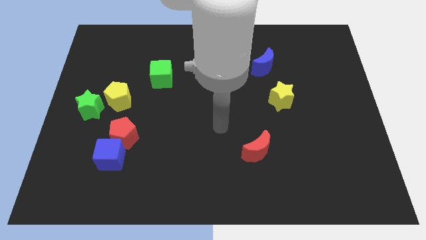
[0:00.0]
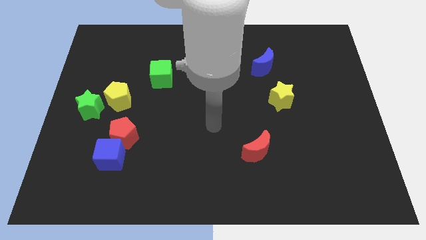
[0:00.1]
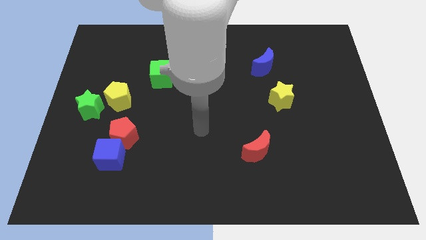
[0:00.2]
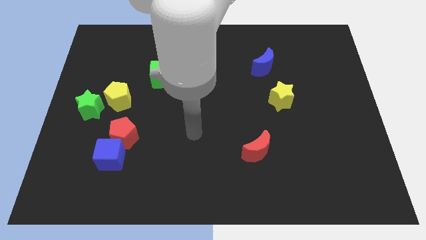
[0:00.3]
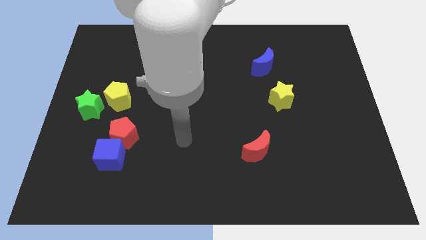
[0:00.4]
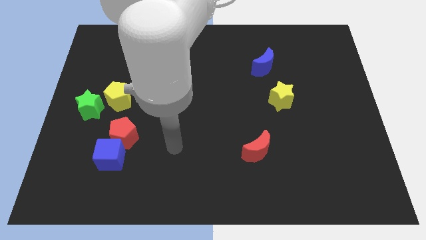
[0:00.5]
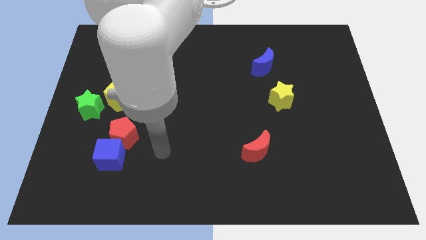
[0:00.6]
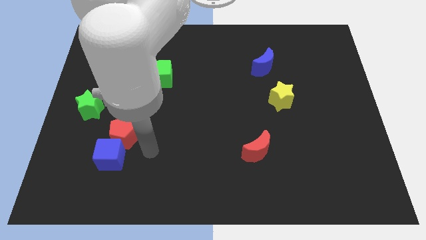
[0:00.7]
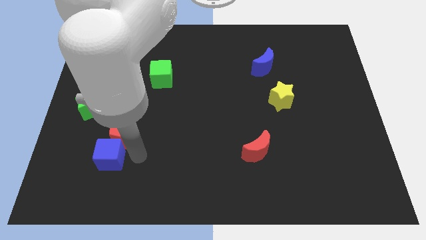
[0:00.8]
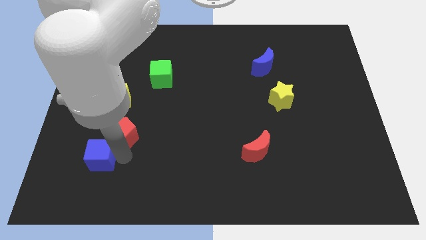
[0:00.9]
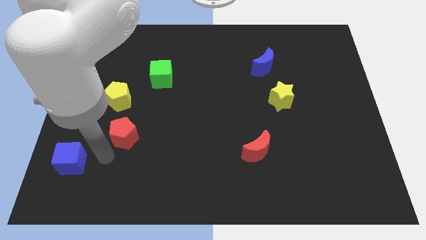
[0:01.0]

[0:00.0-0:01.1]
move the red pentagon away from the blue cube

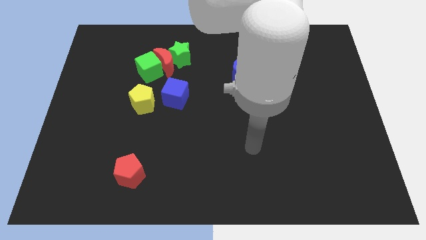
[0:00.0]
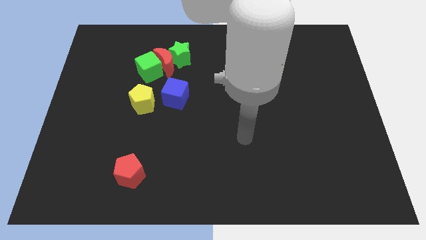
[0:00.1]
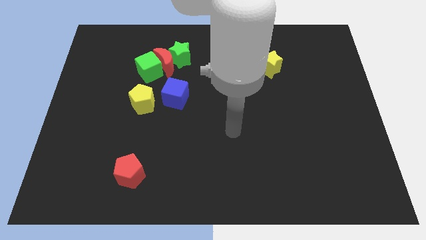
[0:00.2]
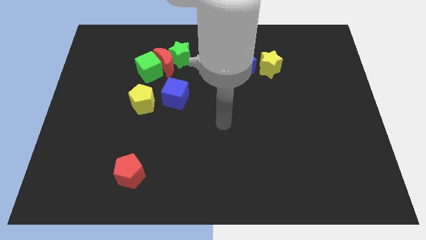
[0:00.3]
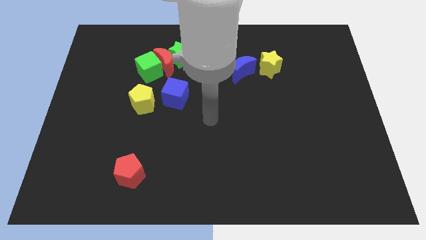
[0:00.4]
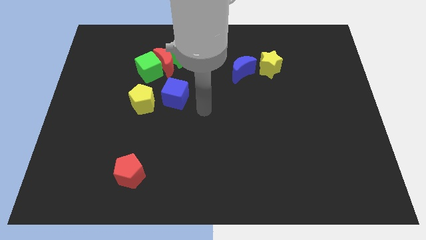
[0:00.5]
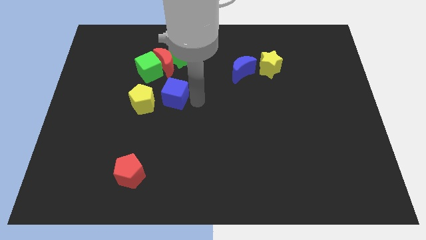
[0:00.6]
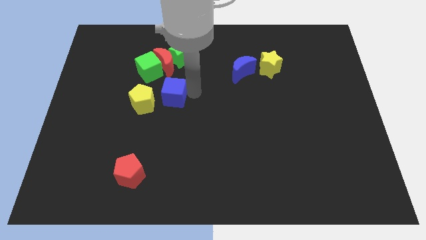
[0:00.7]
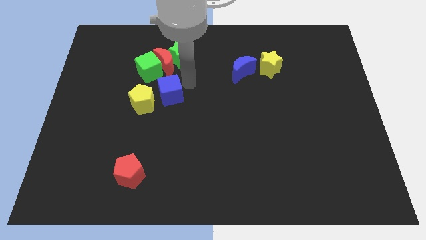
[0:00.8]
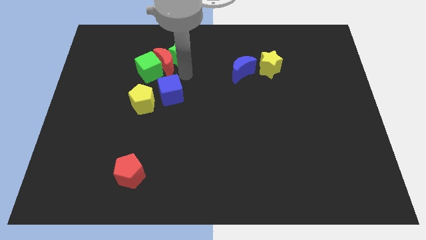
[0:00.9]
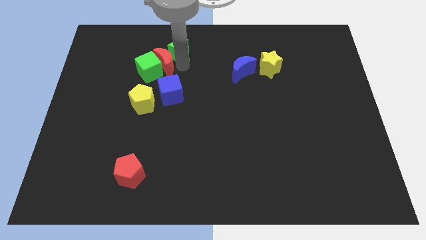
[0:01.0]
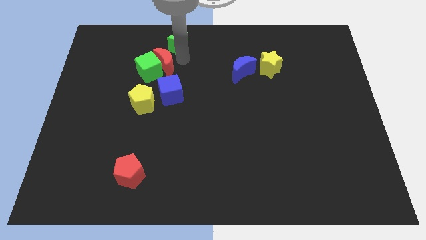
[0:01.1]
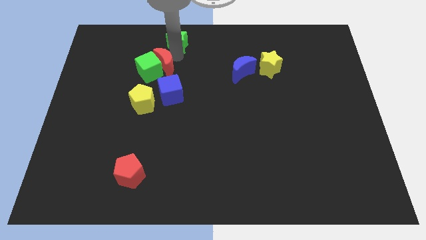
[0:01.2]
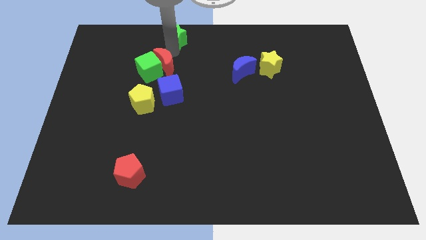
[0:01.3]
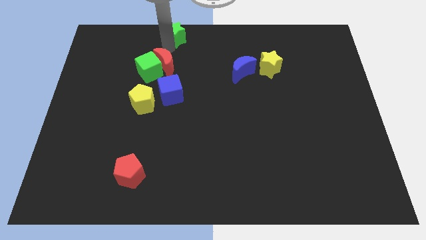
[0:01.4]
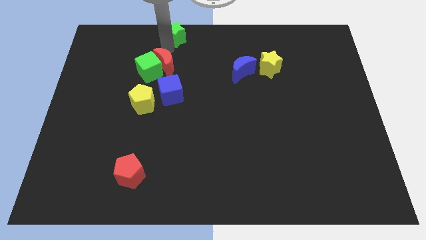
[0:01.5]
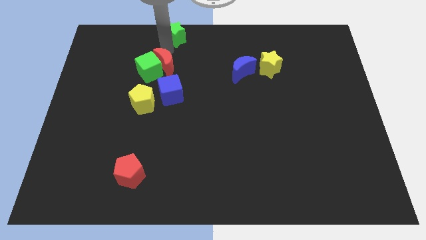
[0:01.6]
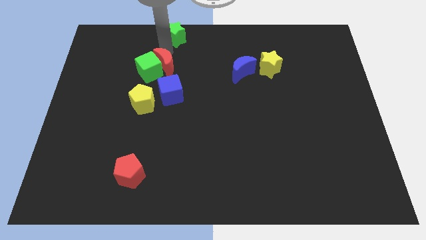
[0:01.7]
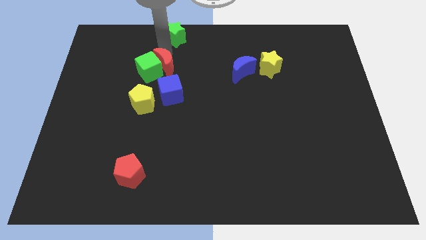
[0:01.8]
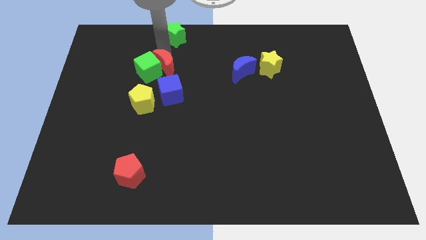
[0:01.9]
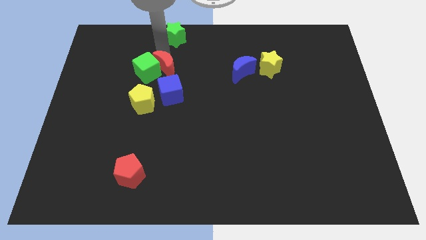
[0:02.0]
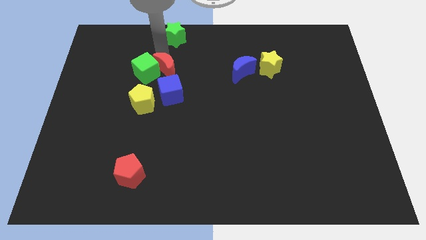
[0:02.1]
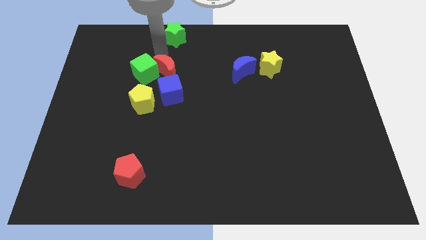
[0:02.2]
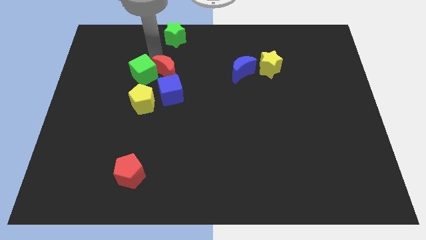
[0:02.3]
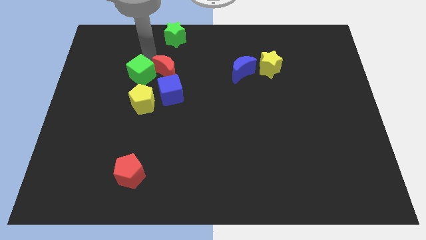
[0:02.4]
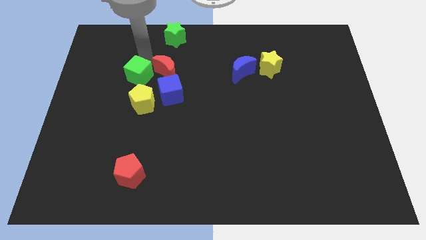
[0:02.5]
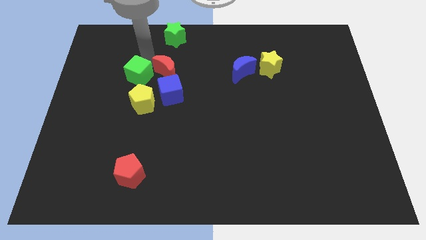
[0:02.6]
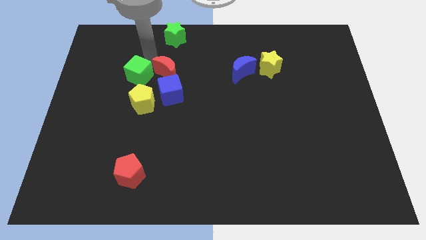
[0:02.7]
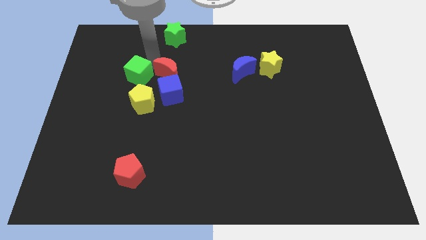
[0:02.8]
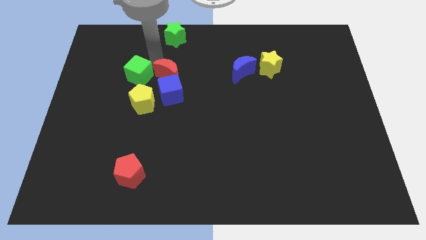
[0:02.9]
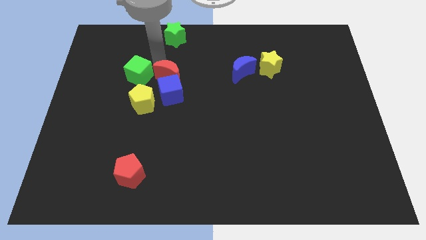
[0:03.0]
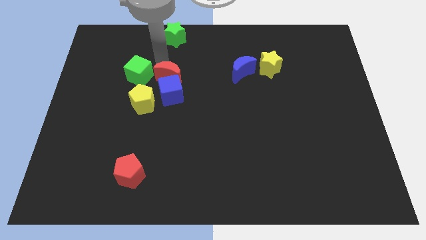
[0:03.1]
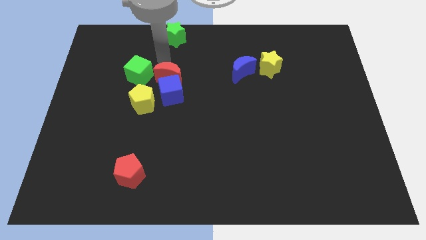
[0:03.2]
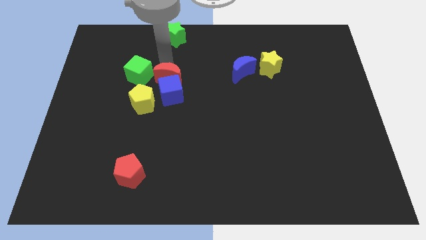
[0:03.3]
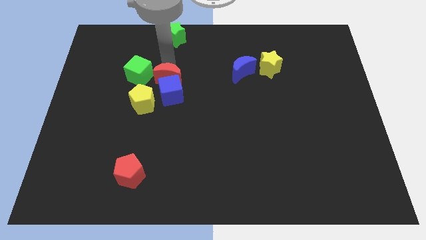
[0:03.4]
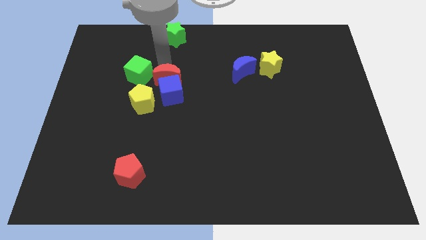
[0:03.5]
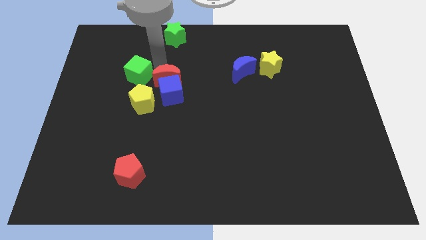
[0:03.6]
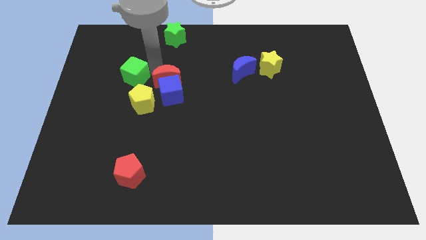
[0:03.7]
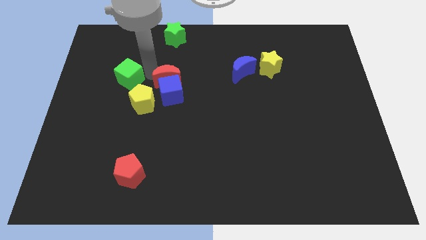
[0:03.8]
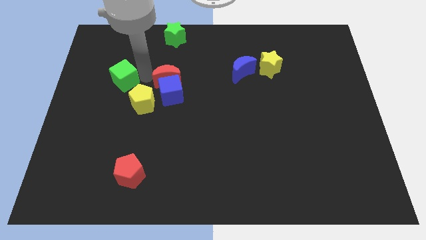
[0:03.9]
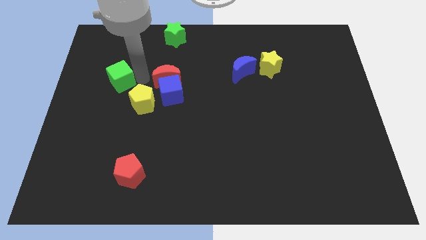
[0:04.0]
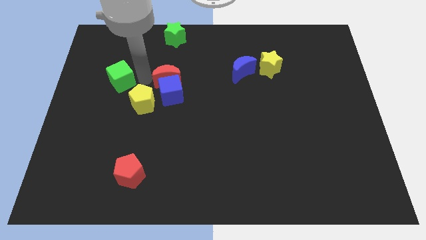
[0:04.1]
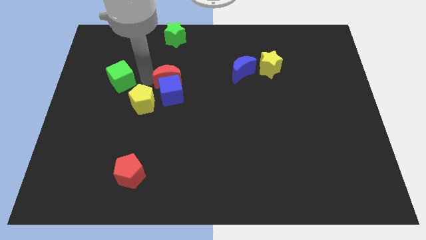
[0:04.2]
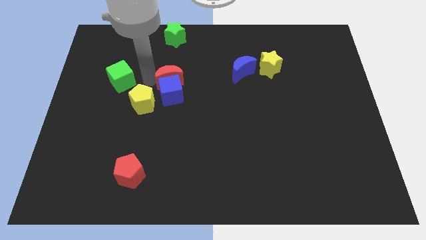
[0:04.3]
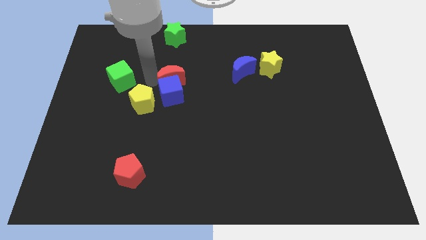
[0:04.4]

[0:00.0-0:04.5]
move the red moon away from the green star and green cube

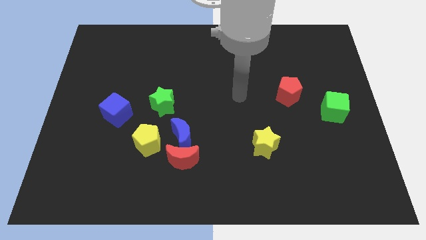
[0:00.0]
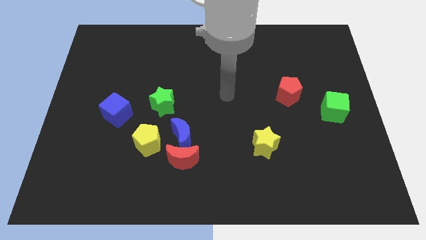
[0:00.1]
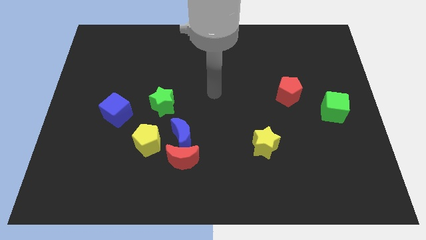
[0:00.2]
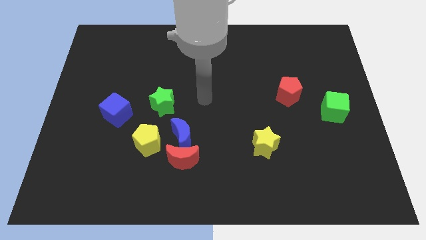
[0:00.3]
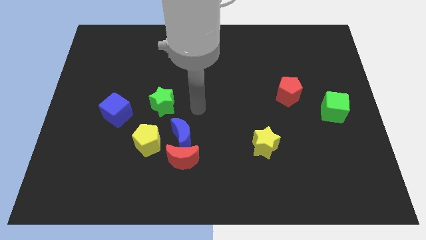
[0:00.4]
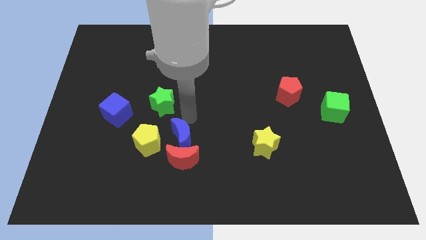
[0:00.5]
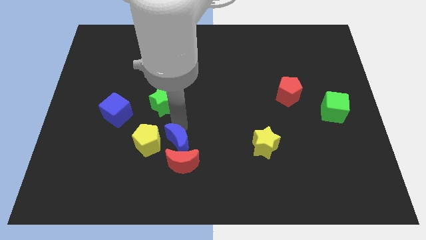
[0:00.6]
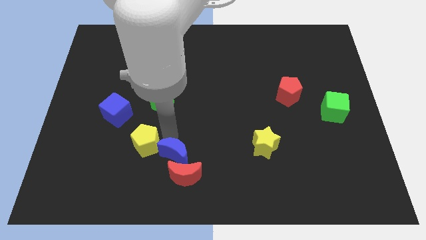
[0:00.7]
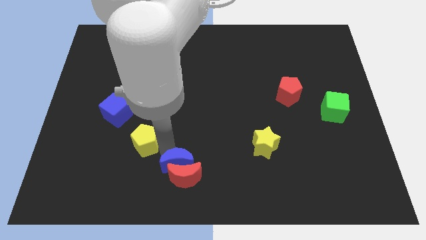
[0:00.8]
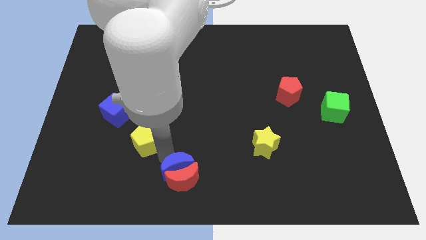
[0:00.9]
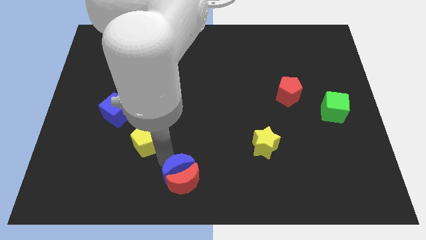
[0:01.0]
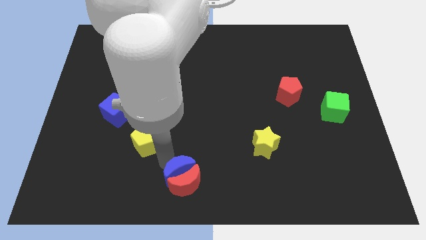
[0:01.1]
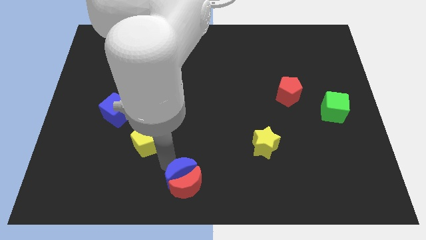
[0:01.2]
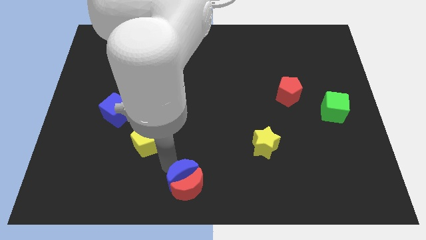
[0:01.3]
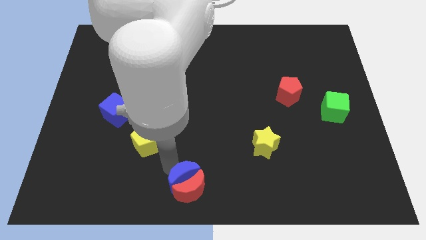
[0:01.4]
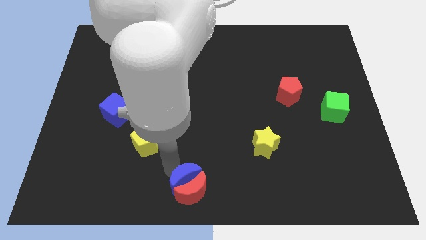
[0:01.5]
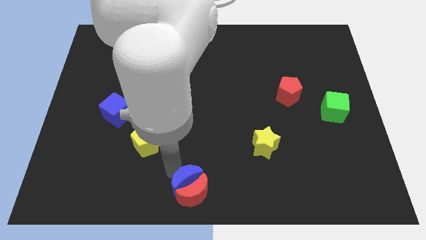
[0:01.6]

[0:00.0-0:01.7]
move the red moon away from the blue moon and yellow pentagon

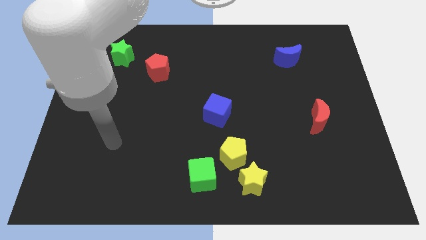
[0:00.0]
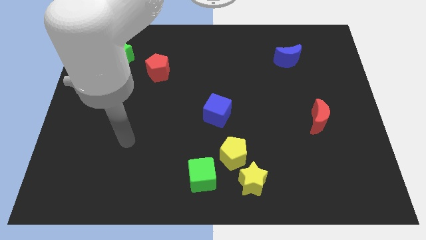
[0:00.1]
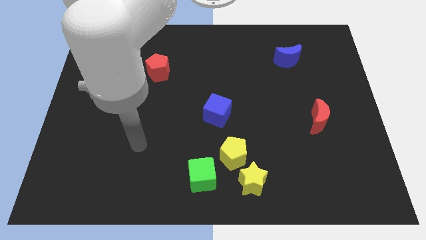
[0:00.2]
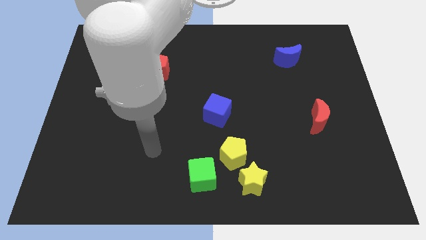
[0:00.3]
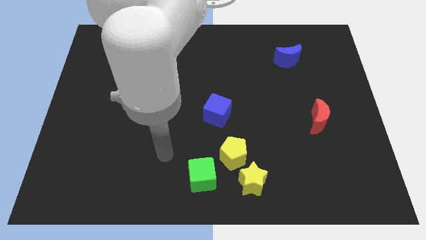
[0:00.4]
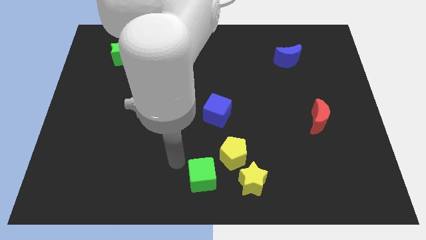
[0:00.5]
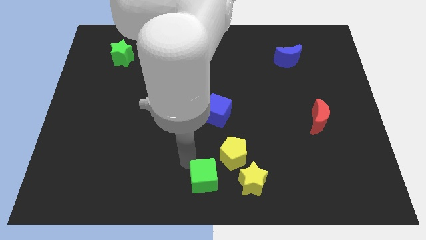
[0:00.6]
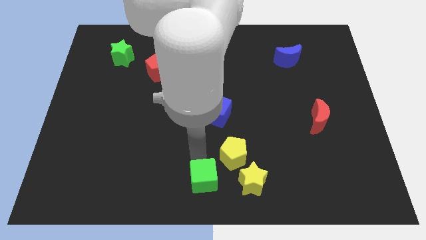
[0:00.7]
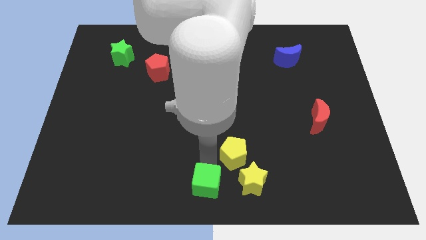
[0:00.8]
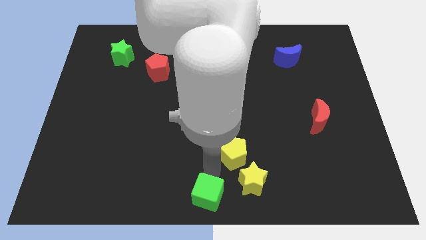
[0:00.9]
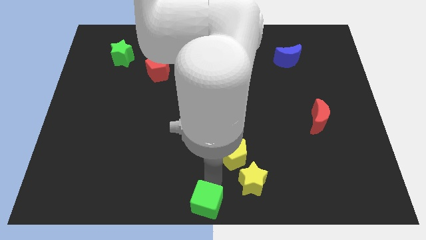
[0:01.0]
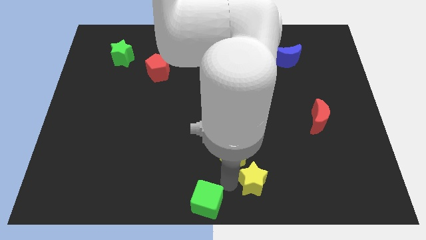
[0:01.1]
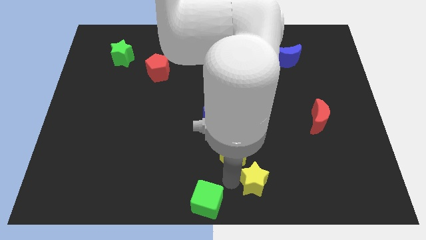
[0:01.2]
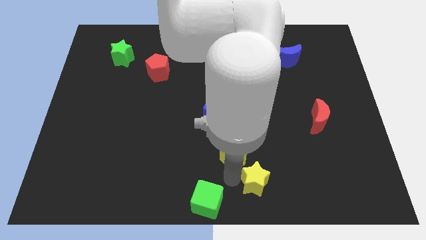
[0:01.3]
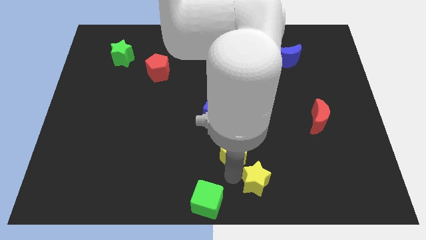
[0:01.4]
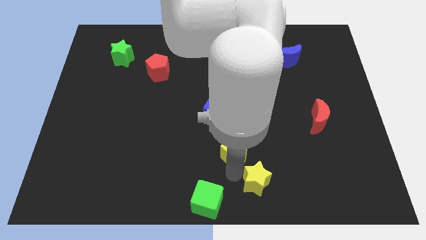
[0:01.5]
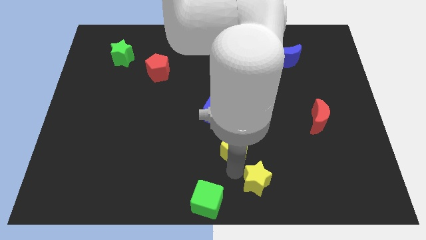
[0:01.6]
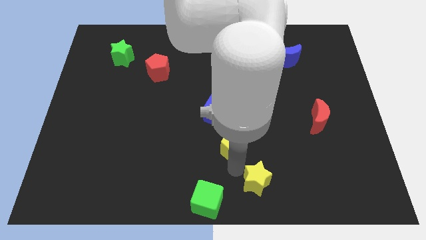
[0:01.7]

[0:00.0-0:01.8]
pull the yellow pentagon apart from the yellow star and green cube

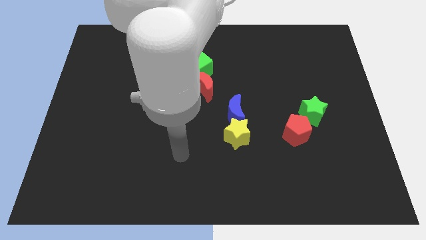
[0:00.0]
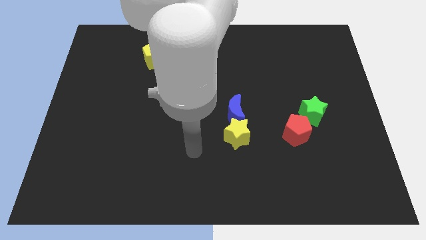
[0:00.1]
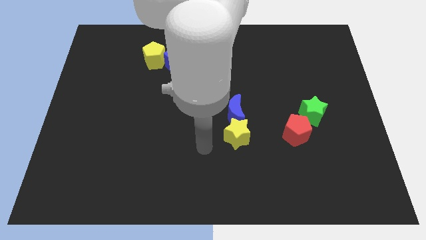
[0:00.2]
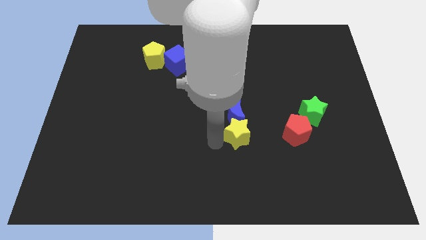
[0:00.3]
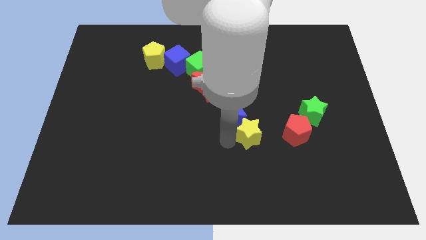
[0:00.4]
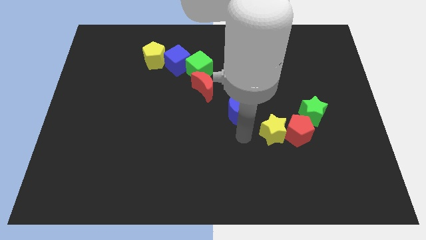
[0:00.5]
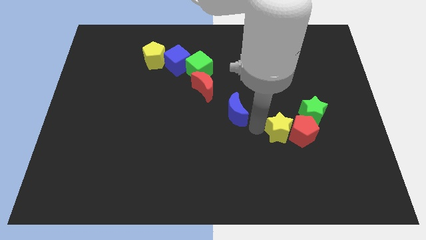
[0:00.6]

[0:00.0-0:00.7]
move the blue moon away from the yellow star
